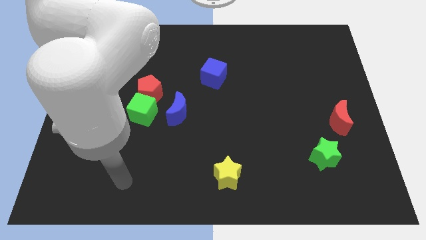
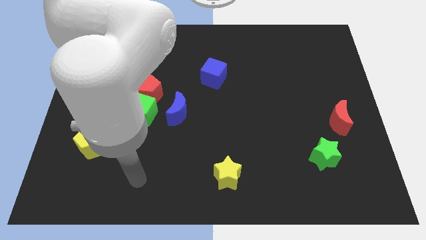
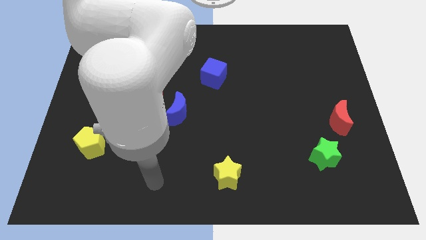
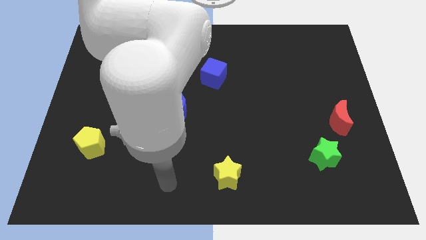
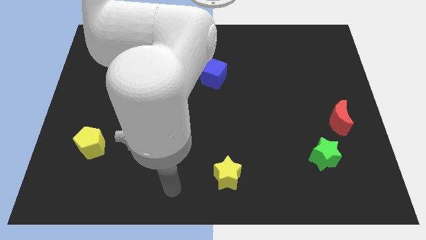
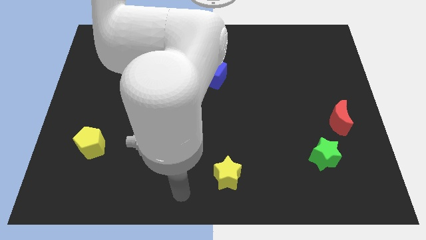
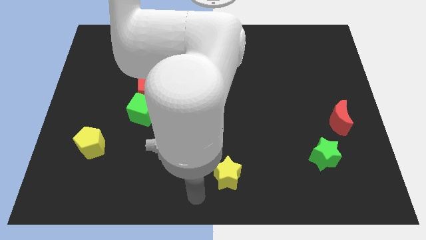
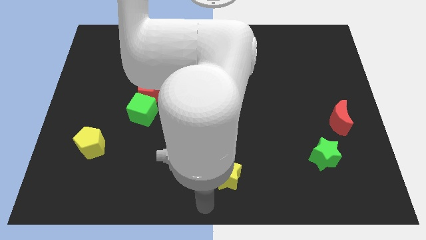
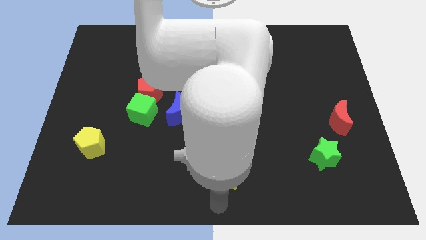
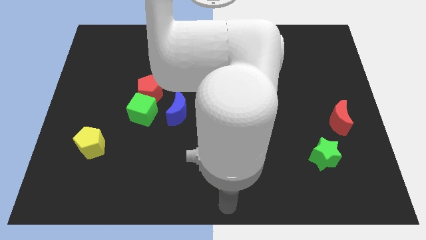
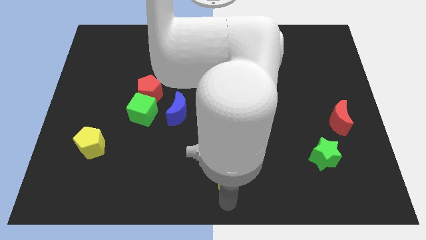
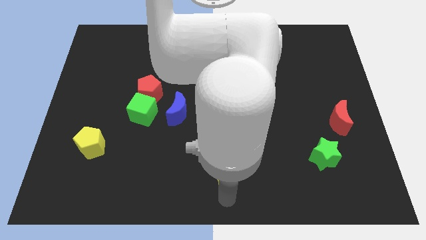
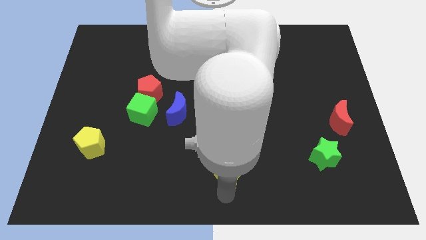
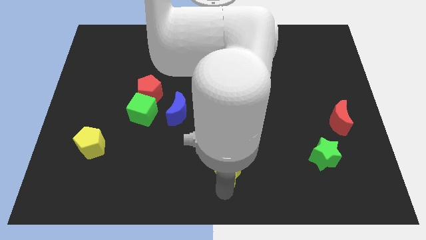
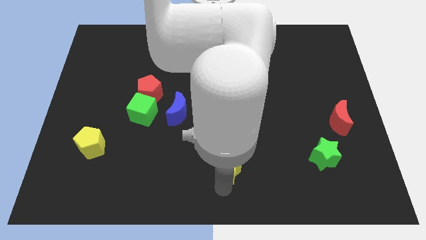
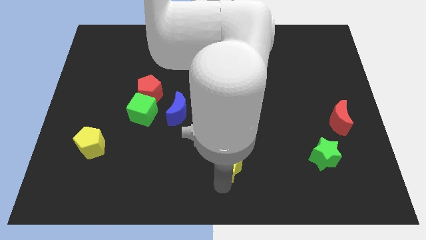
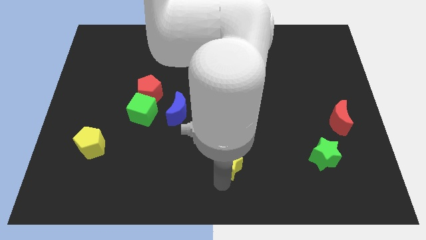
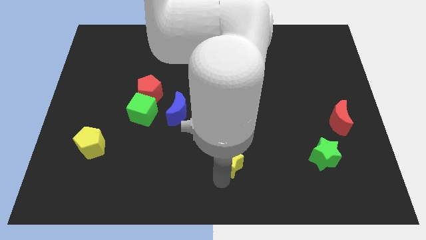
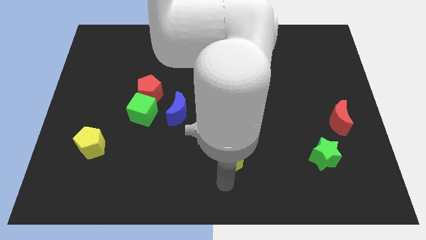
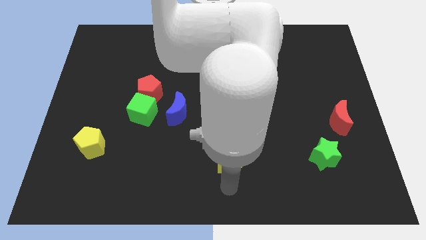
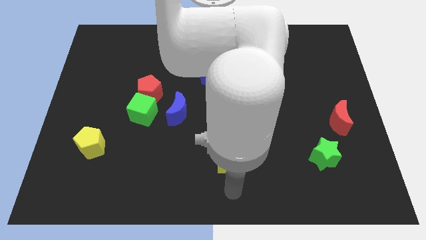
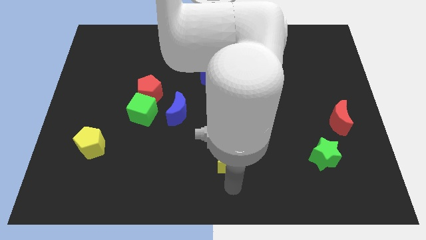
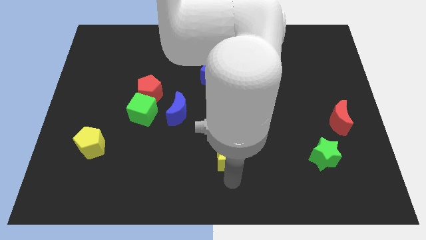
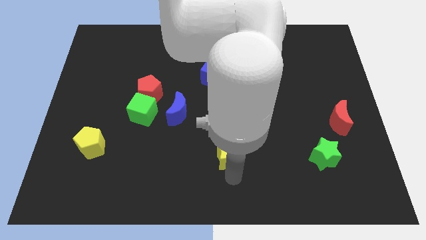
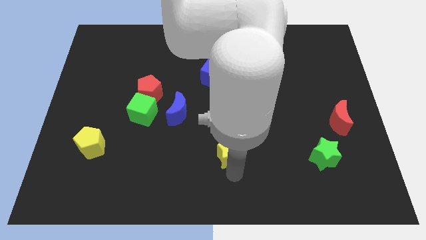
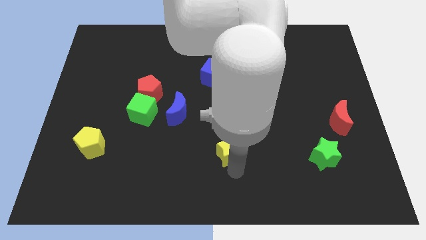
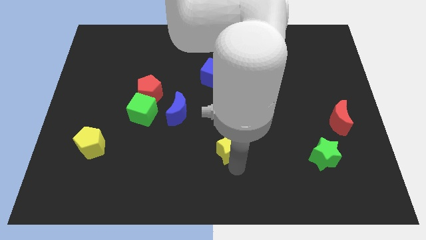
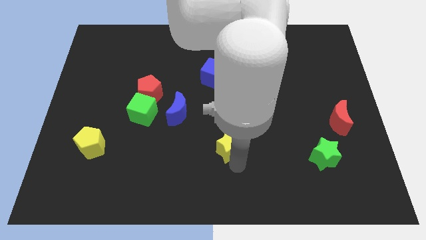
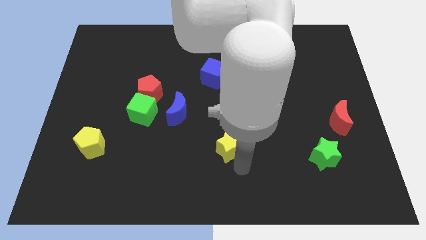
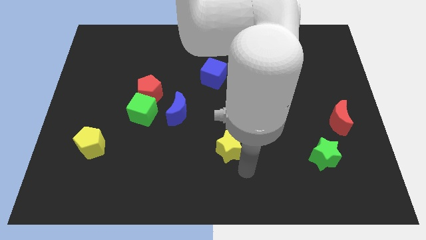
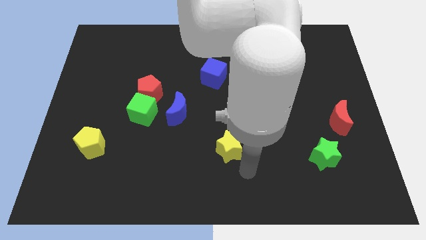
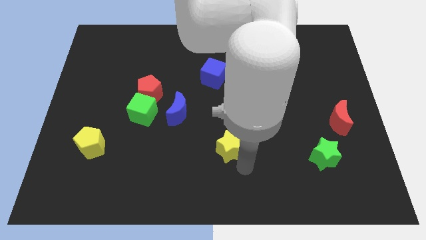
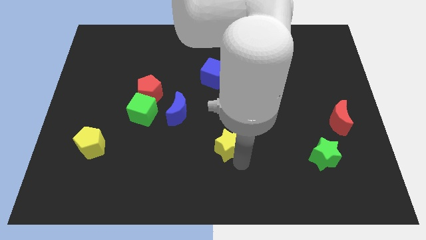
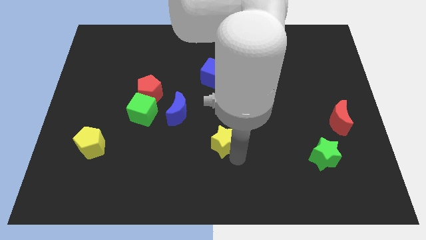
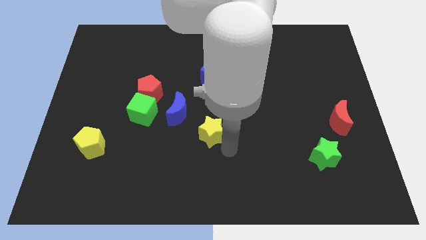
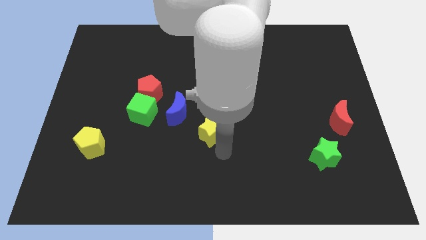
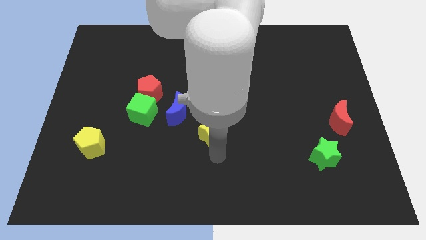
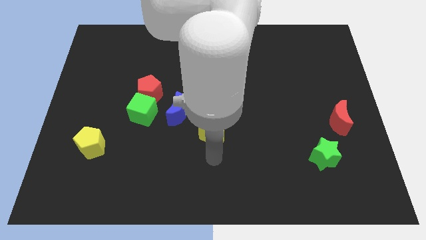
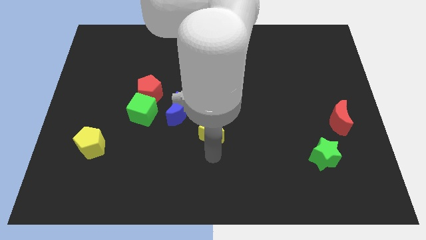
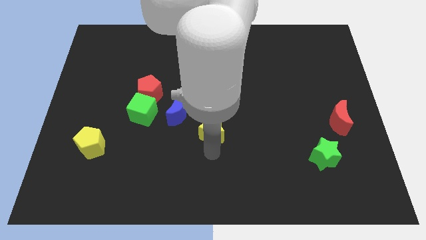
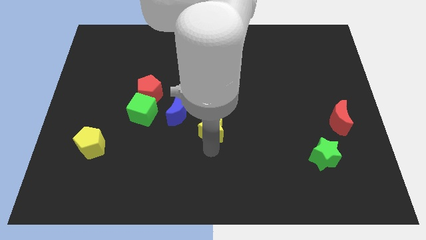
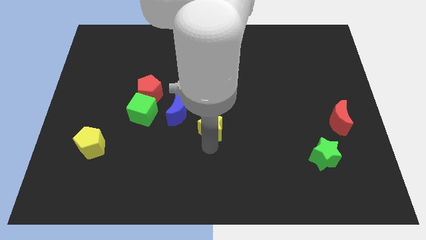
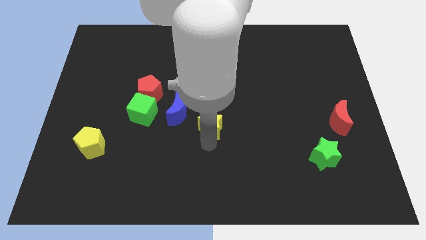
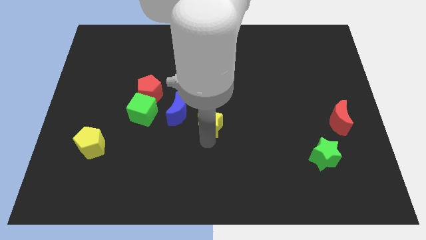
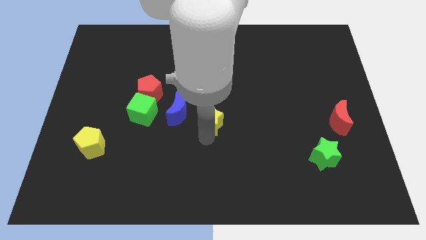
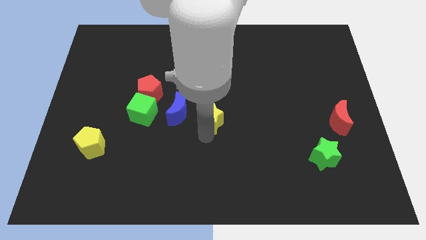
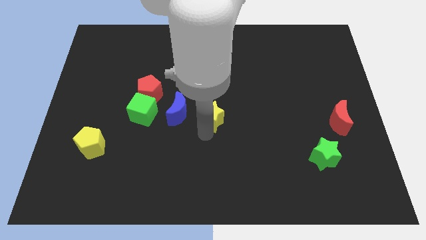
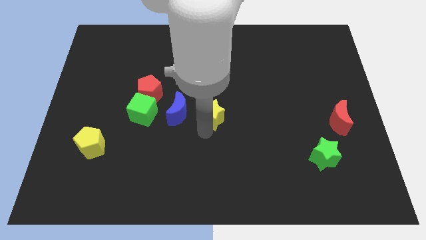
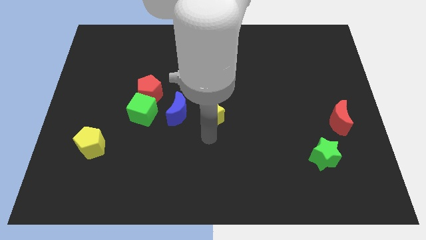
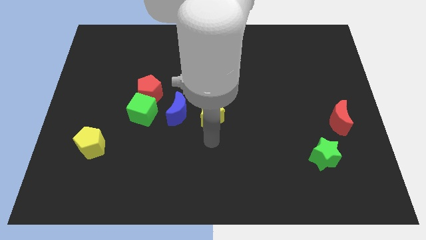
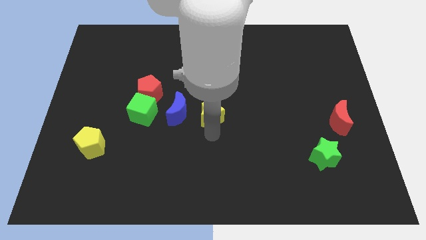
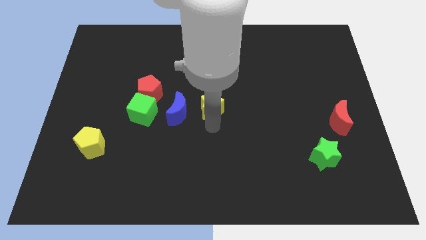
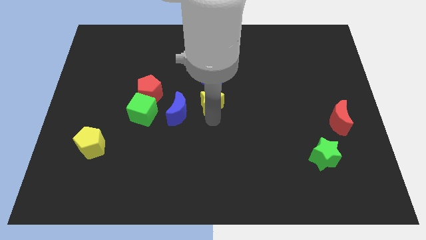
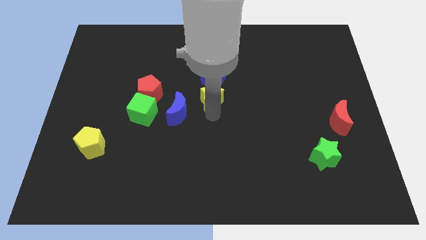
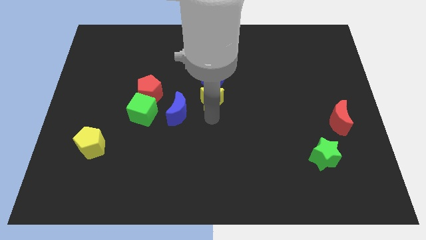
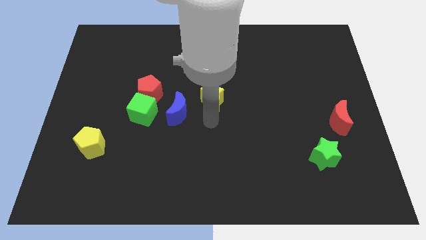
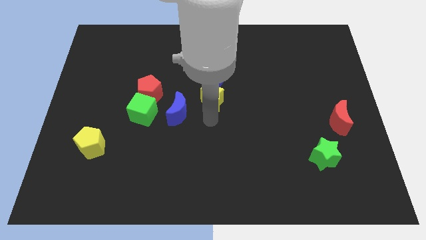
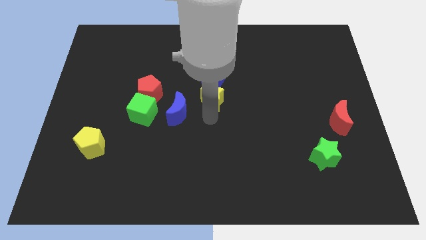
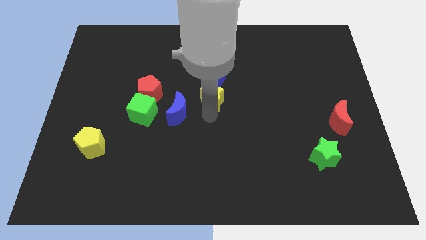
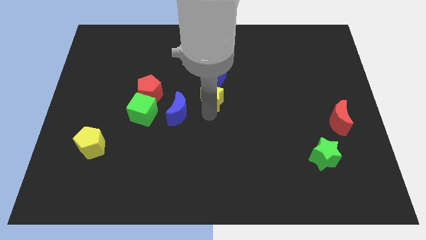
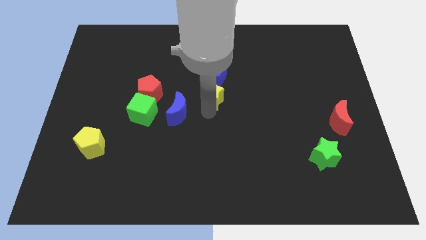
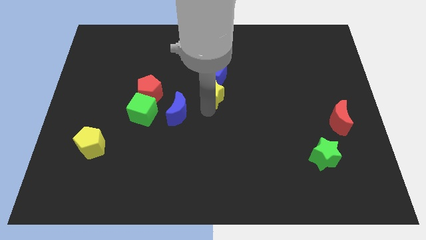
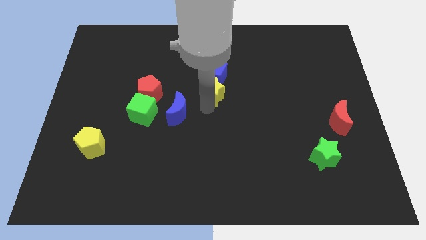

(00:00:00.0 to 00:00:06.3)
put the yellow star next to the blue cube
